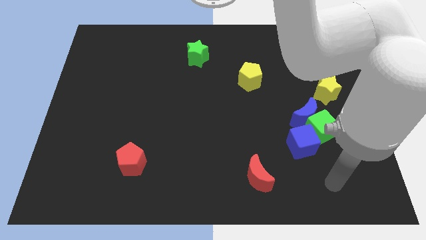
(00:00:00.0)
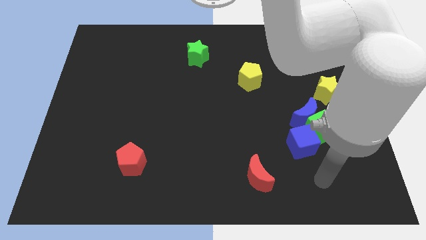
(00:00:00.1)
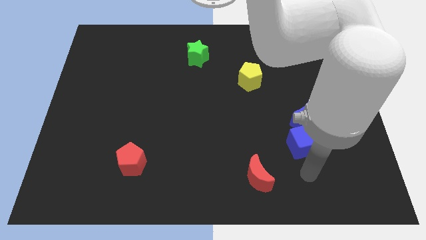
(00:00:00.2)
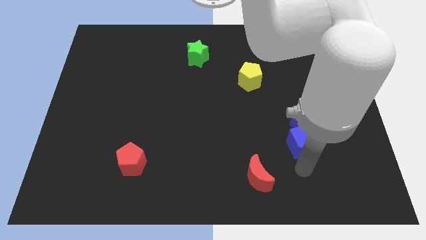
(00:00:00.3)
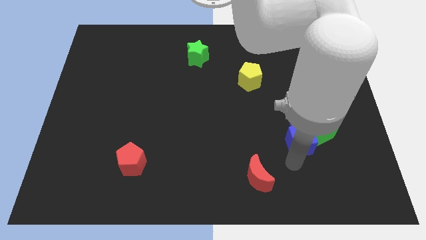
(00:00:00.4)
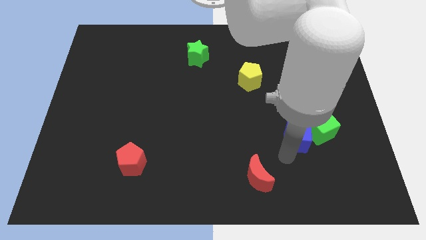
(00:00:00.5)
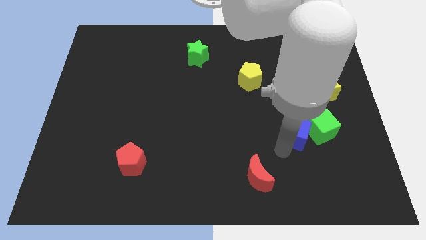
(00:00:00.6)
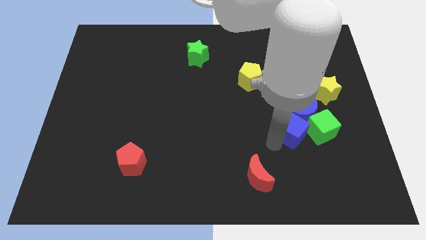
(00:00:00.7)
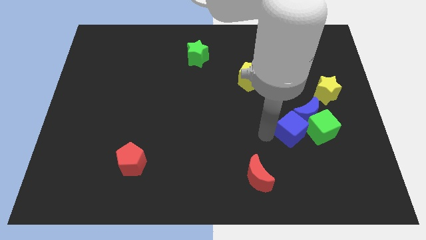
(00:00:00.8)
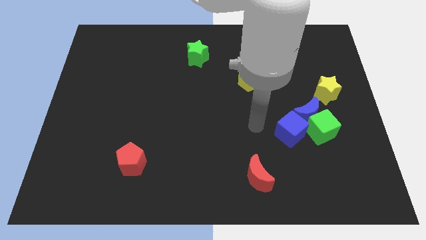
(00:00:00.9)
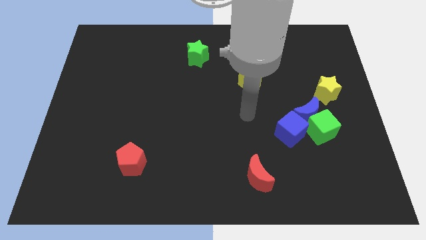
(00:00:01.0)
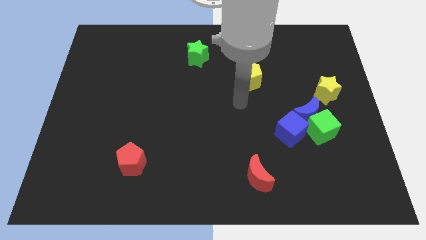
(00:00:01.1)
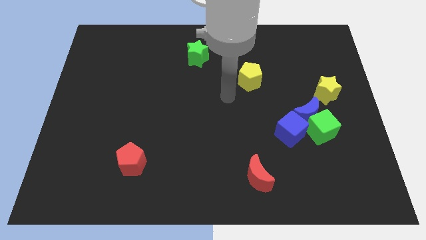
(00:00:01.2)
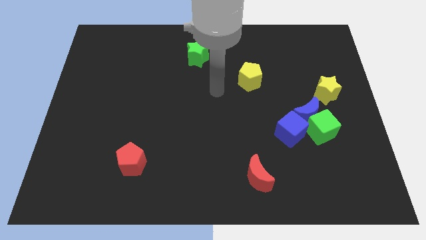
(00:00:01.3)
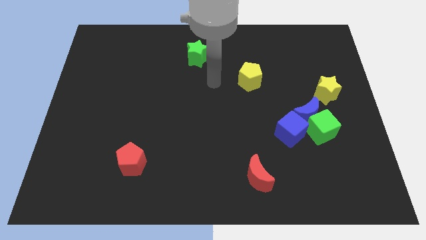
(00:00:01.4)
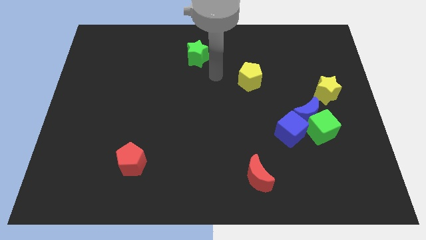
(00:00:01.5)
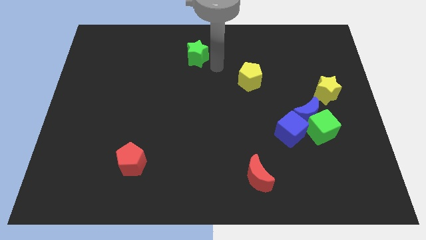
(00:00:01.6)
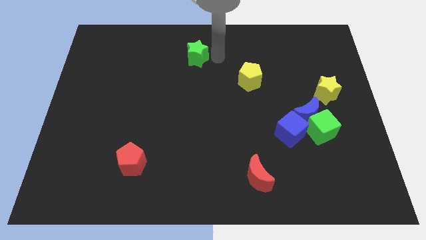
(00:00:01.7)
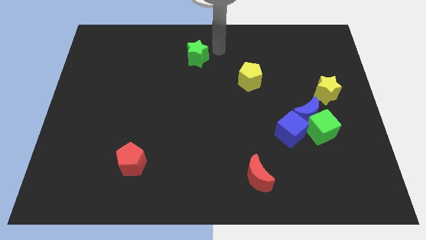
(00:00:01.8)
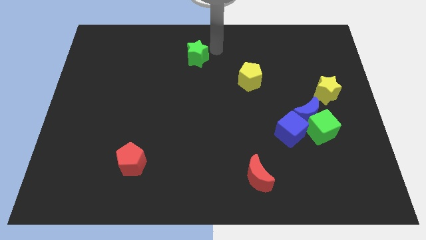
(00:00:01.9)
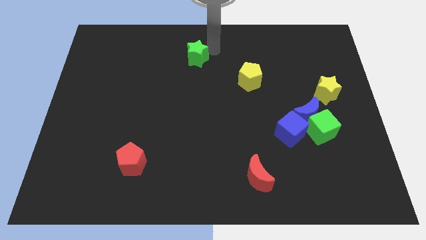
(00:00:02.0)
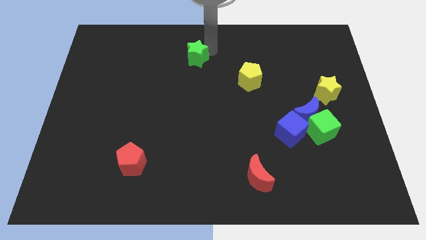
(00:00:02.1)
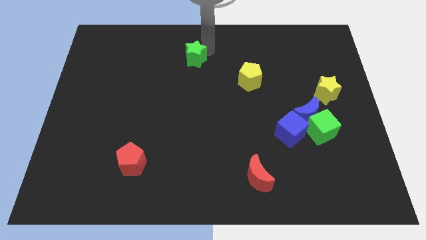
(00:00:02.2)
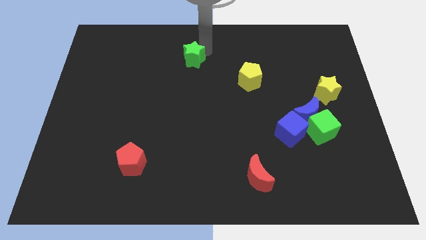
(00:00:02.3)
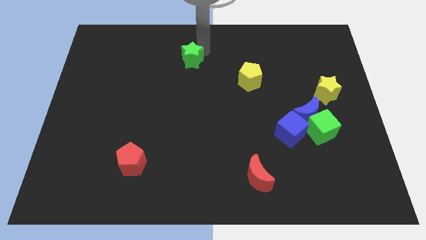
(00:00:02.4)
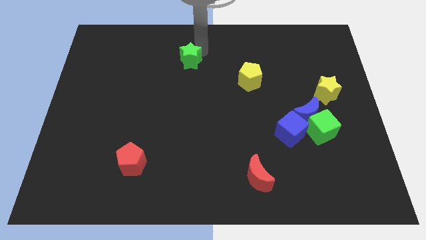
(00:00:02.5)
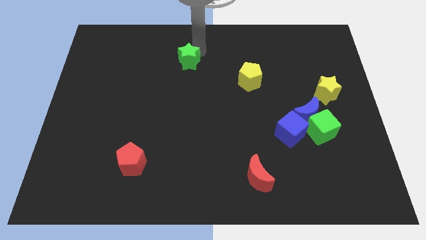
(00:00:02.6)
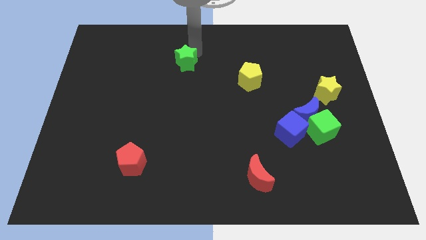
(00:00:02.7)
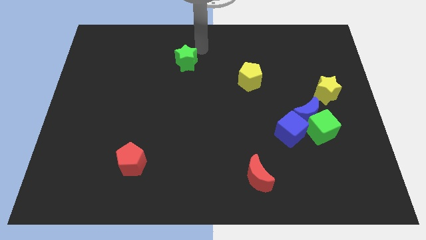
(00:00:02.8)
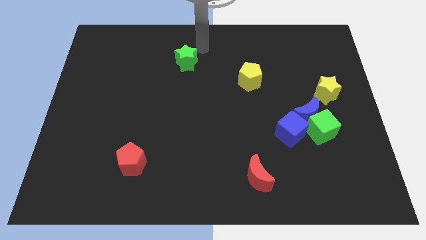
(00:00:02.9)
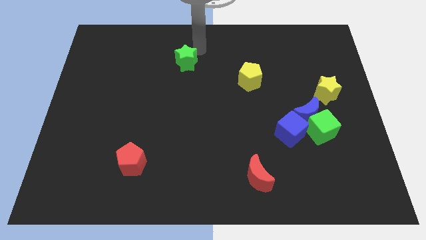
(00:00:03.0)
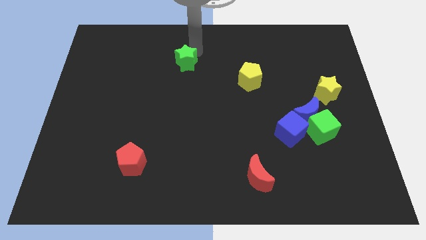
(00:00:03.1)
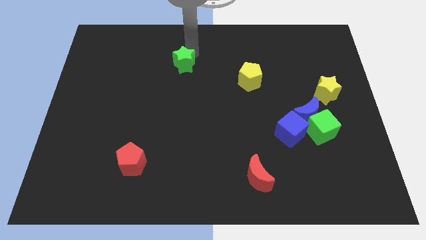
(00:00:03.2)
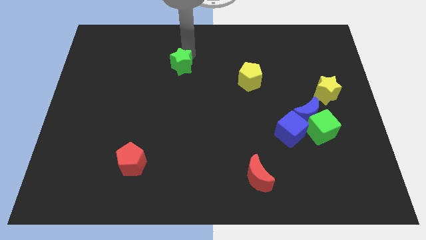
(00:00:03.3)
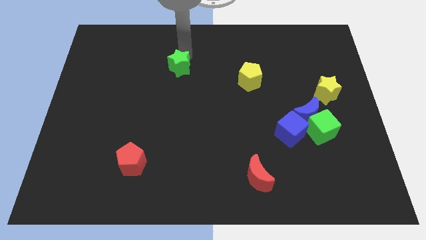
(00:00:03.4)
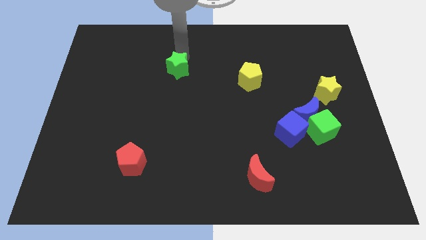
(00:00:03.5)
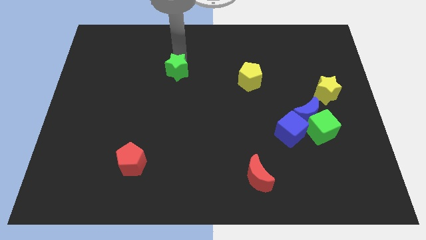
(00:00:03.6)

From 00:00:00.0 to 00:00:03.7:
push the green star slightly diagonally down and to the left

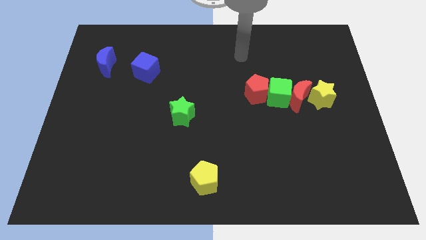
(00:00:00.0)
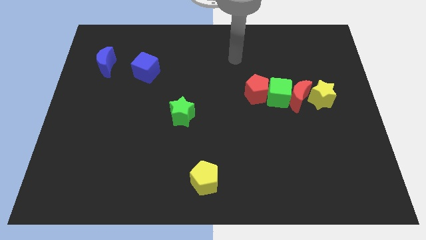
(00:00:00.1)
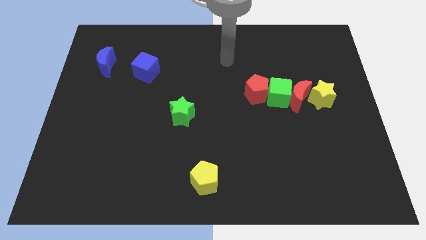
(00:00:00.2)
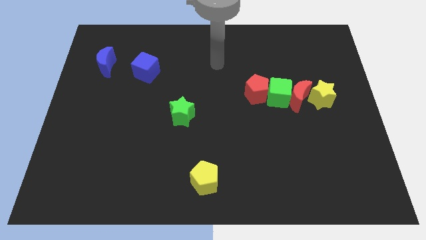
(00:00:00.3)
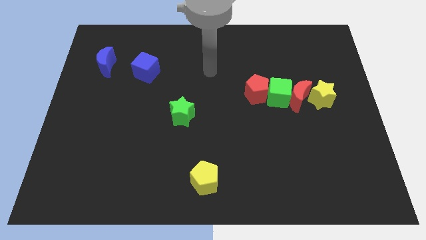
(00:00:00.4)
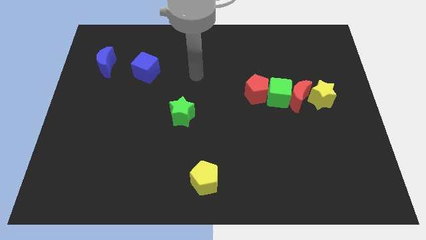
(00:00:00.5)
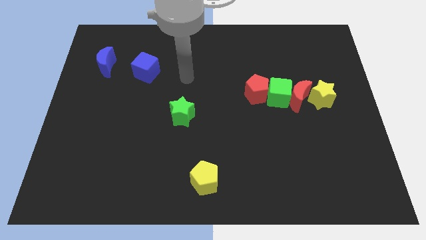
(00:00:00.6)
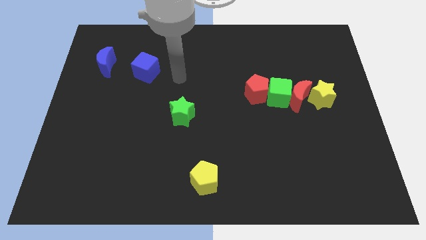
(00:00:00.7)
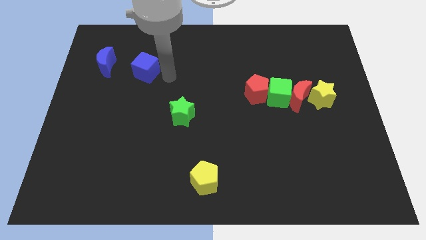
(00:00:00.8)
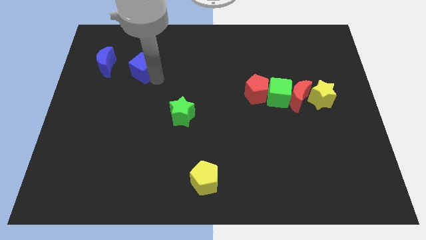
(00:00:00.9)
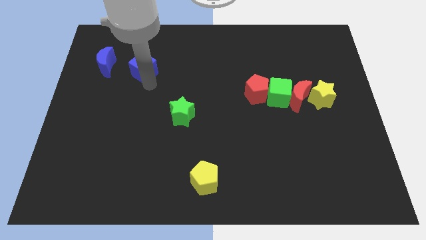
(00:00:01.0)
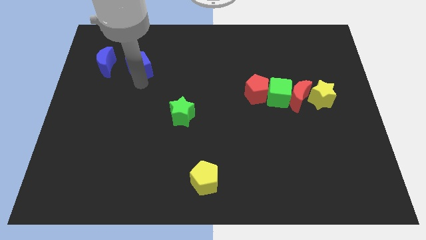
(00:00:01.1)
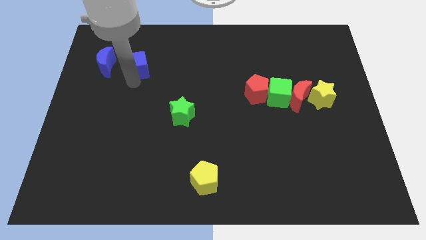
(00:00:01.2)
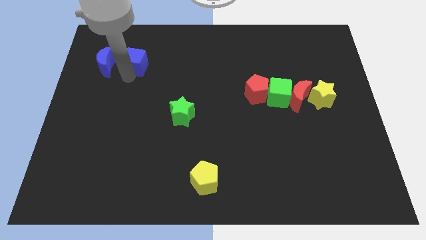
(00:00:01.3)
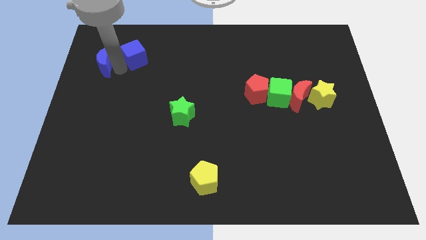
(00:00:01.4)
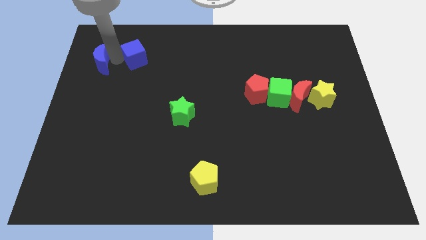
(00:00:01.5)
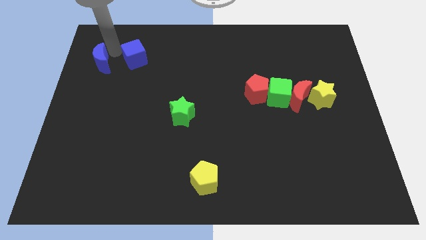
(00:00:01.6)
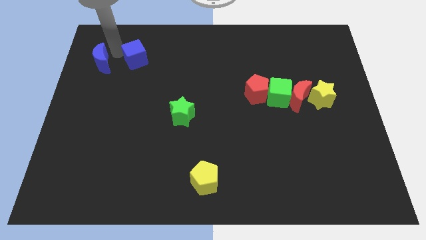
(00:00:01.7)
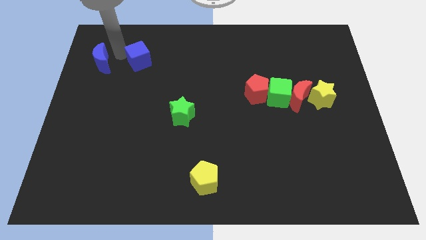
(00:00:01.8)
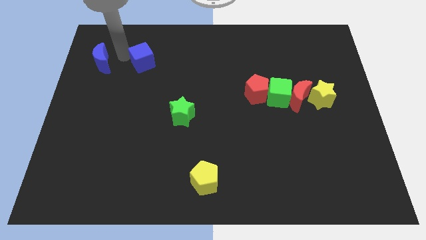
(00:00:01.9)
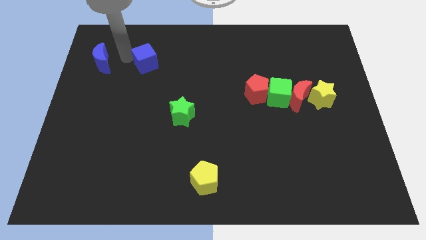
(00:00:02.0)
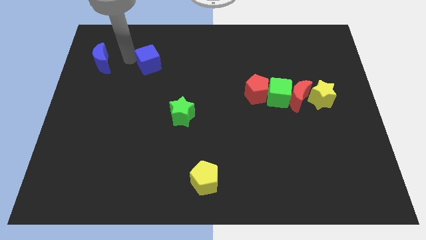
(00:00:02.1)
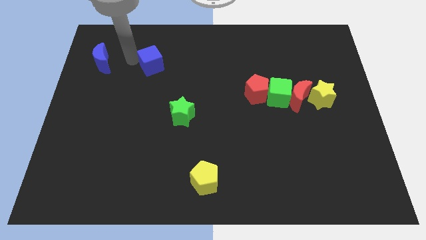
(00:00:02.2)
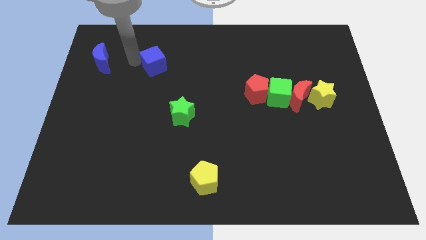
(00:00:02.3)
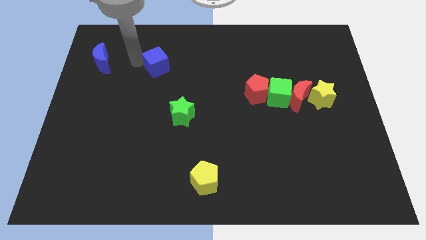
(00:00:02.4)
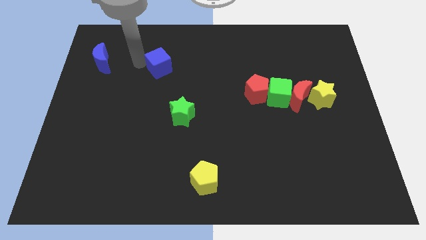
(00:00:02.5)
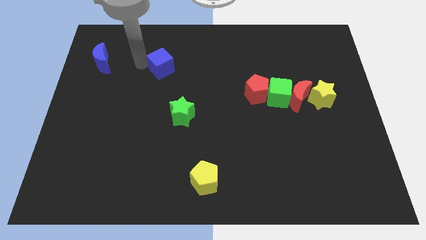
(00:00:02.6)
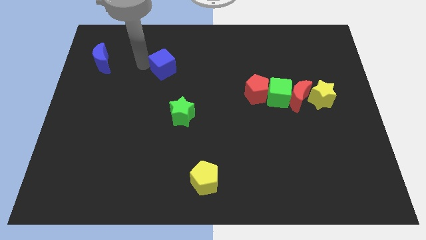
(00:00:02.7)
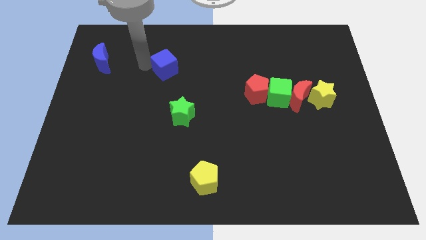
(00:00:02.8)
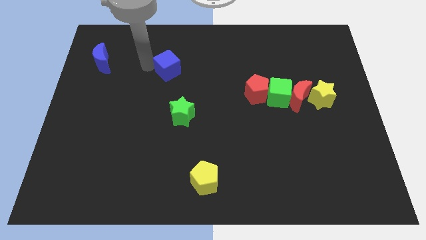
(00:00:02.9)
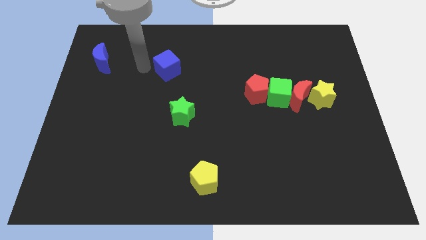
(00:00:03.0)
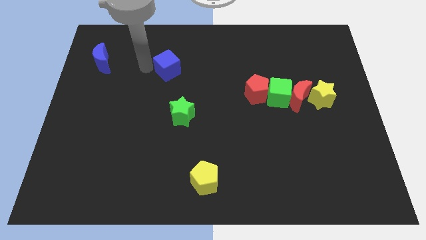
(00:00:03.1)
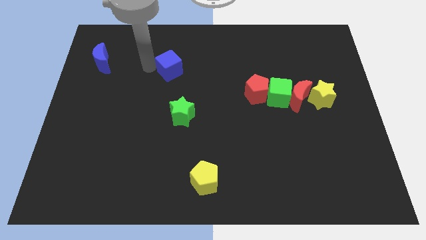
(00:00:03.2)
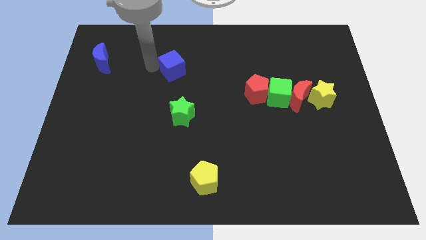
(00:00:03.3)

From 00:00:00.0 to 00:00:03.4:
move the blue cube to the right slightly

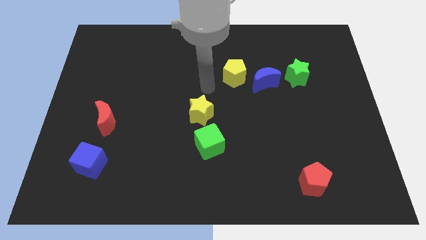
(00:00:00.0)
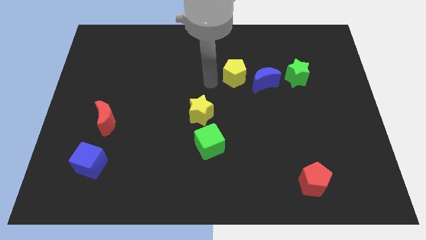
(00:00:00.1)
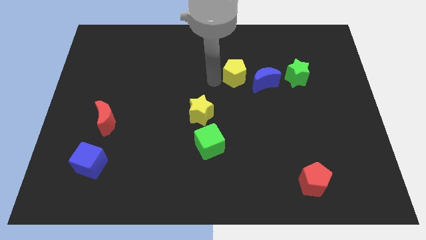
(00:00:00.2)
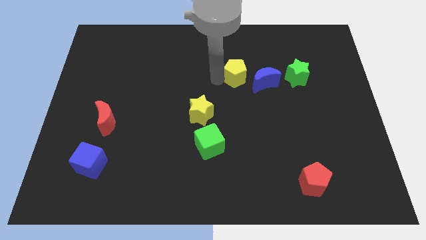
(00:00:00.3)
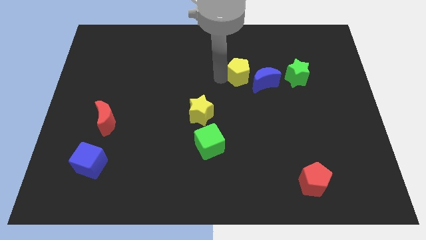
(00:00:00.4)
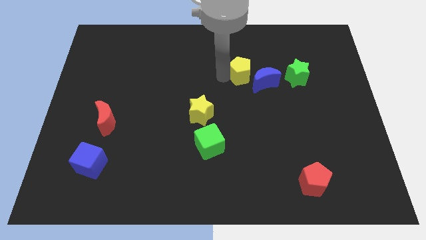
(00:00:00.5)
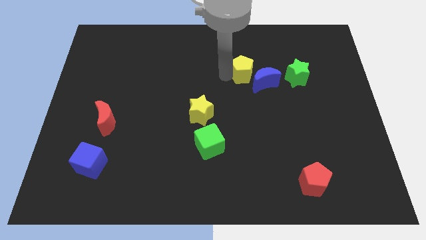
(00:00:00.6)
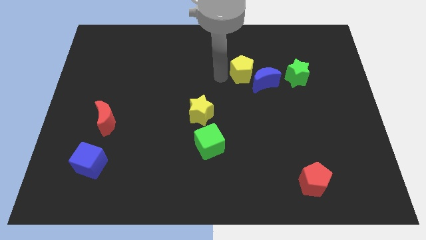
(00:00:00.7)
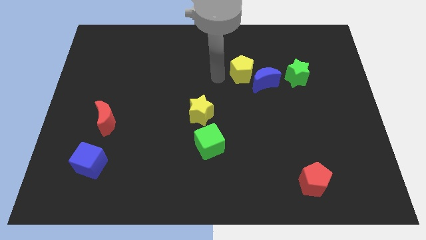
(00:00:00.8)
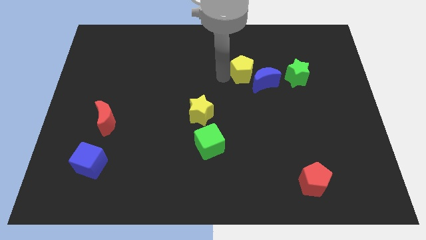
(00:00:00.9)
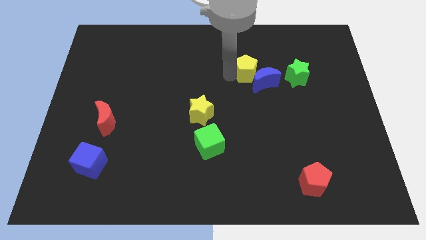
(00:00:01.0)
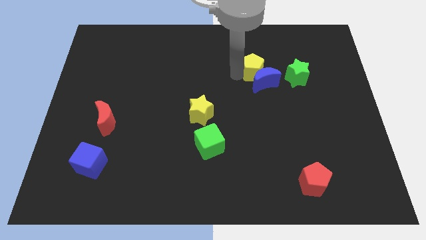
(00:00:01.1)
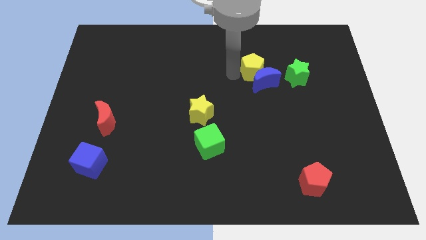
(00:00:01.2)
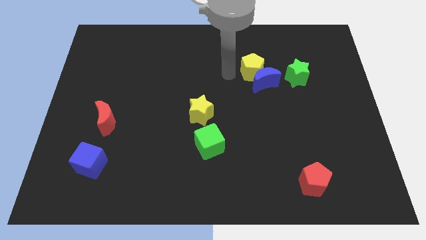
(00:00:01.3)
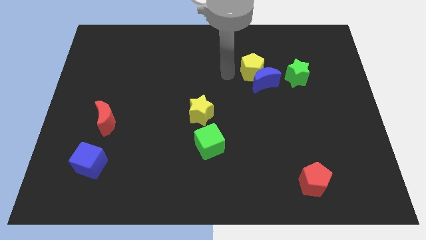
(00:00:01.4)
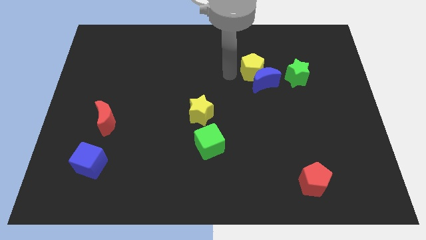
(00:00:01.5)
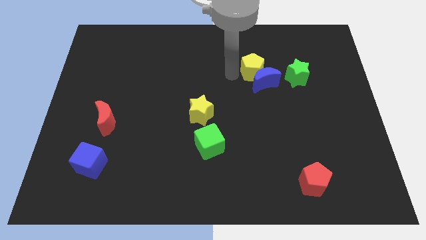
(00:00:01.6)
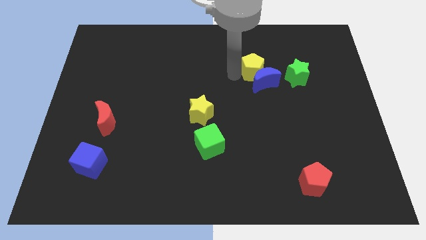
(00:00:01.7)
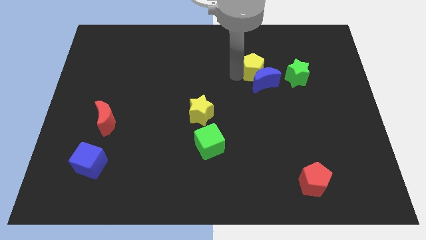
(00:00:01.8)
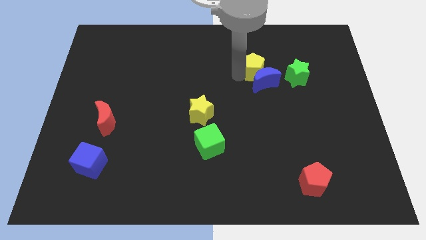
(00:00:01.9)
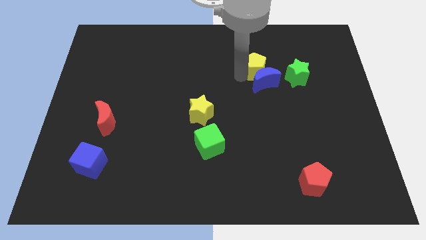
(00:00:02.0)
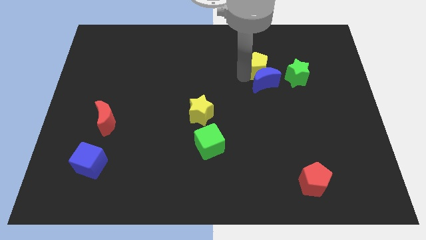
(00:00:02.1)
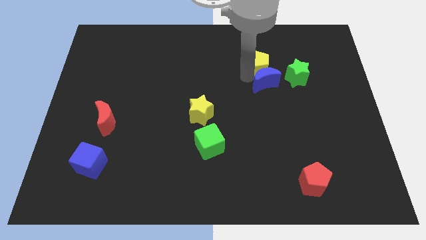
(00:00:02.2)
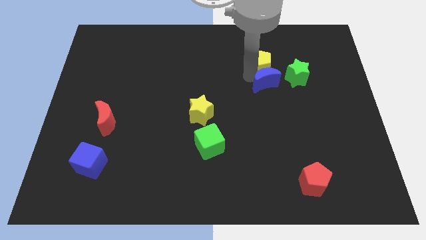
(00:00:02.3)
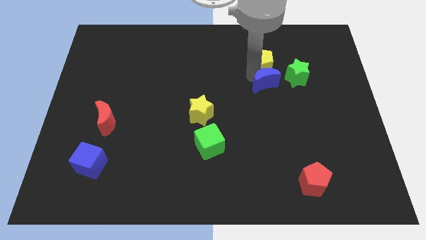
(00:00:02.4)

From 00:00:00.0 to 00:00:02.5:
move the yellow pentagon a bit right
